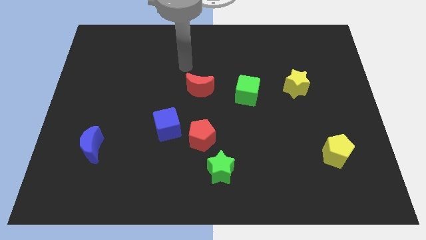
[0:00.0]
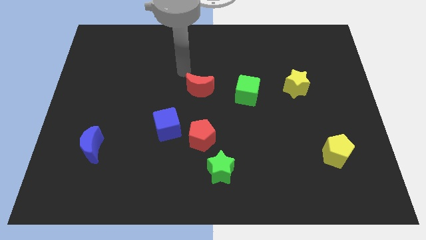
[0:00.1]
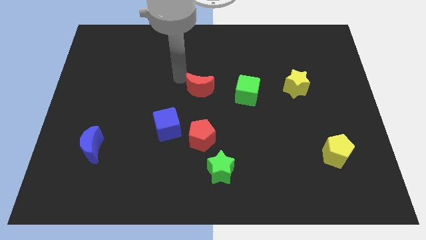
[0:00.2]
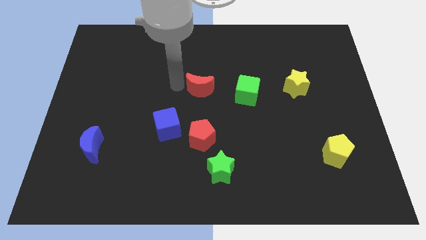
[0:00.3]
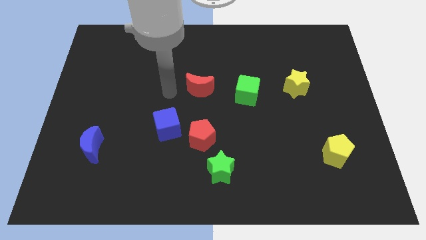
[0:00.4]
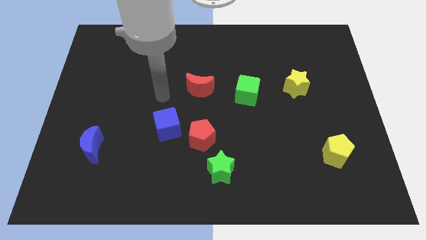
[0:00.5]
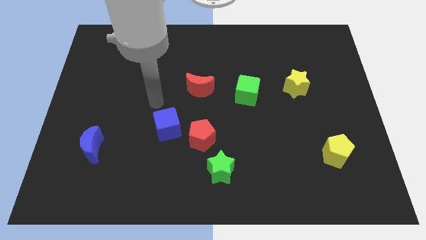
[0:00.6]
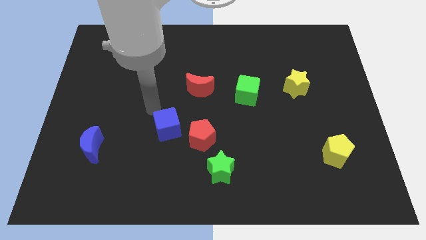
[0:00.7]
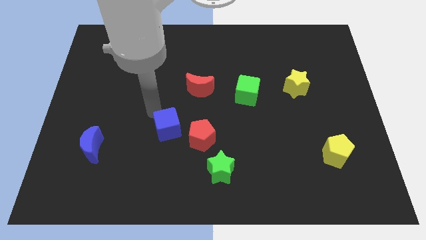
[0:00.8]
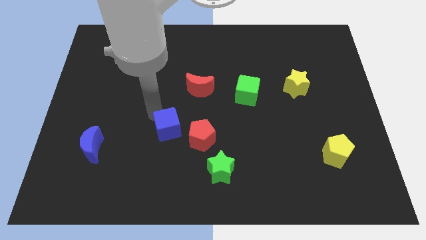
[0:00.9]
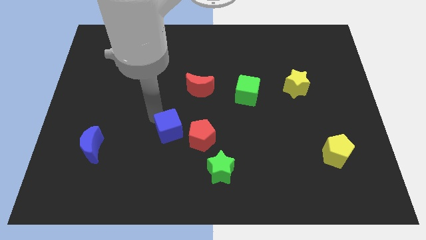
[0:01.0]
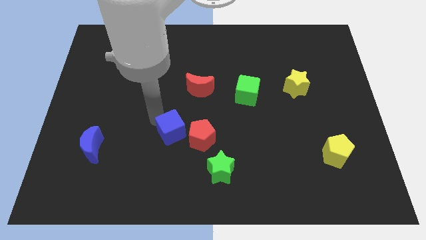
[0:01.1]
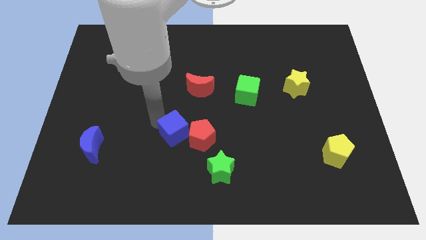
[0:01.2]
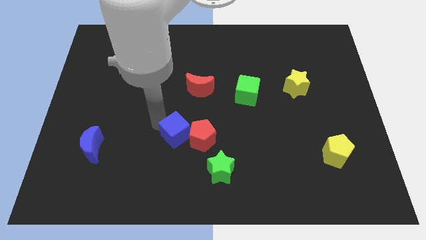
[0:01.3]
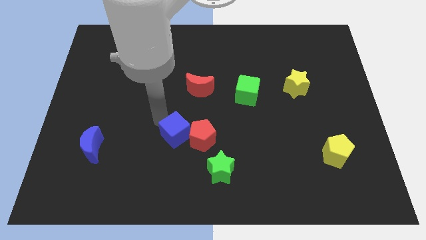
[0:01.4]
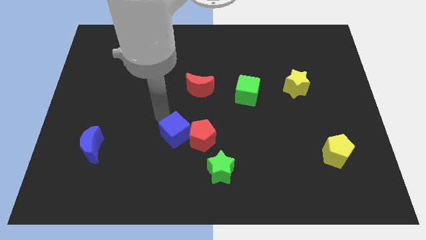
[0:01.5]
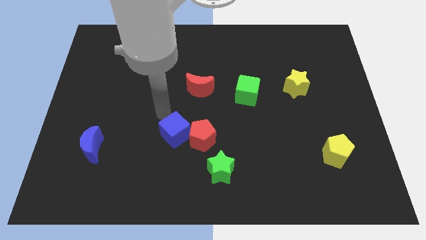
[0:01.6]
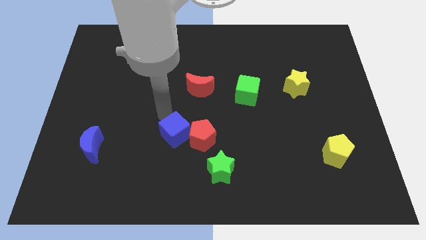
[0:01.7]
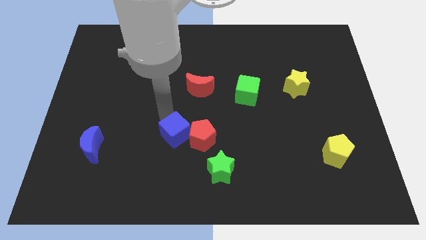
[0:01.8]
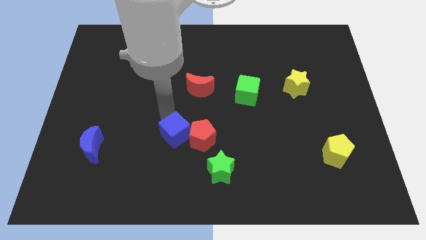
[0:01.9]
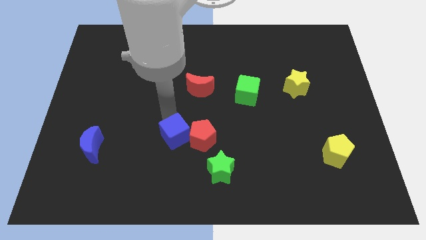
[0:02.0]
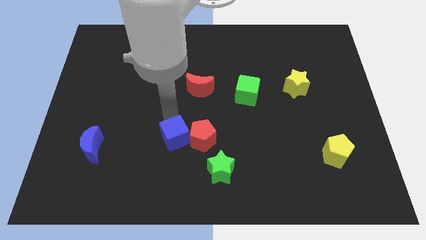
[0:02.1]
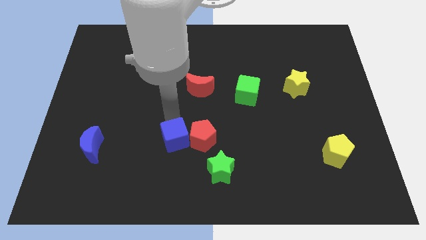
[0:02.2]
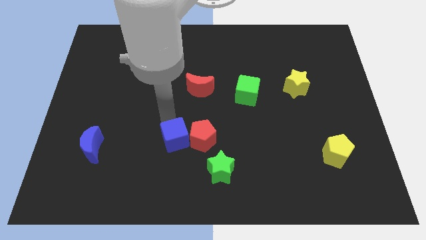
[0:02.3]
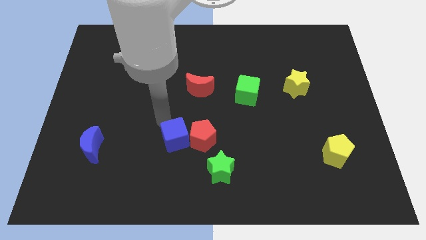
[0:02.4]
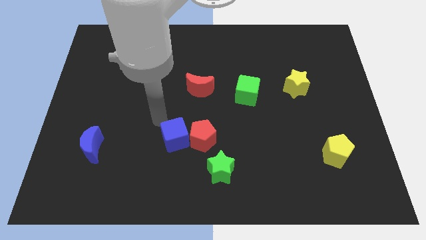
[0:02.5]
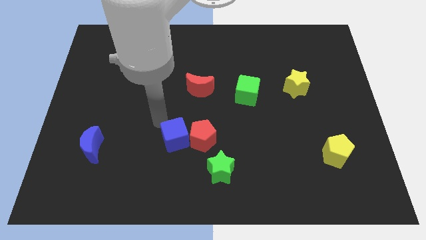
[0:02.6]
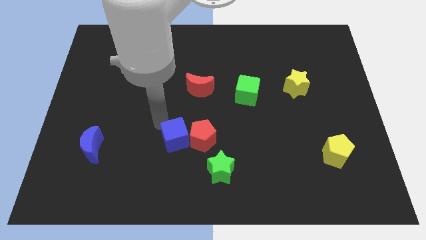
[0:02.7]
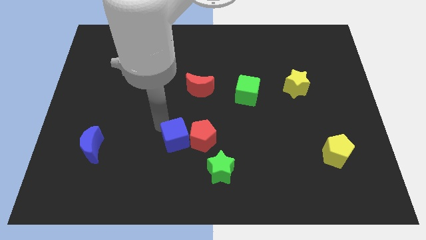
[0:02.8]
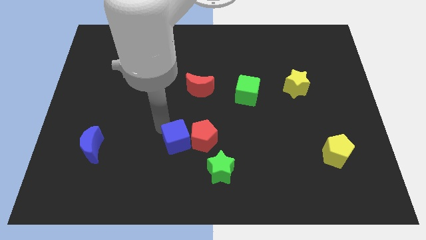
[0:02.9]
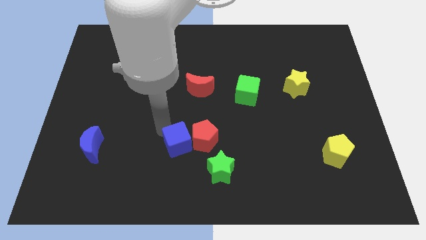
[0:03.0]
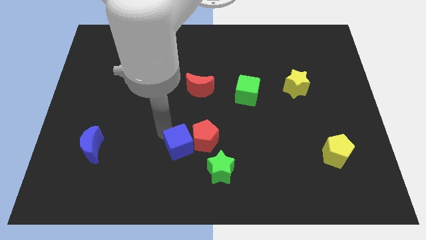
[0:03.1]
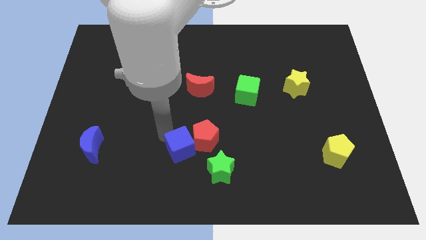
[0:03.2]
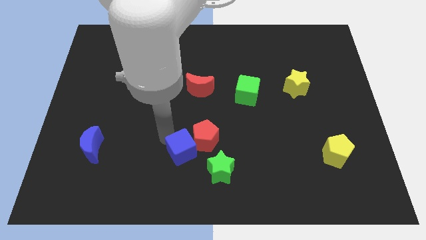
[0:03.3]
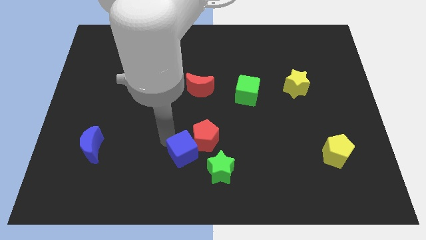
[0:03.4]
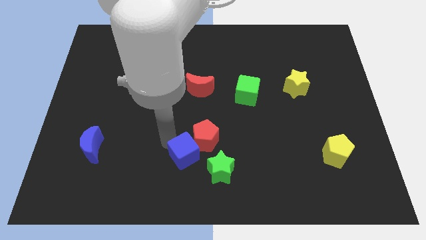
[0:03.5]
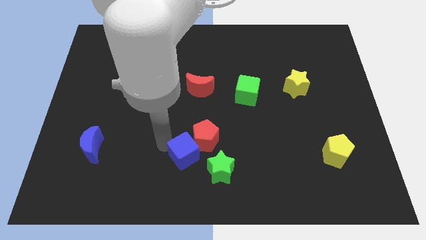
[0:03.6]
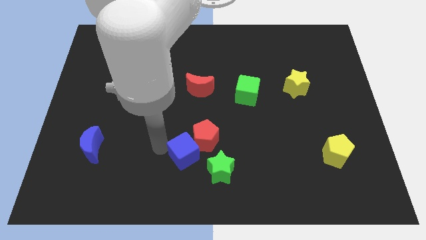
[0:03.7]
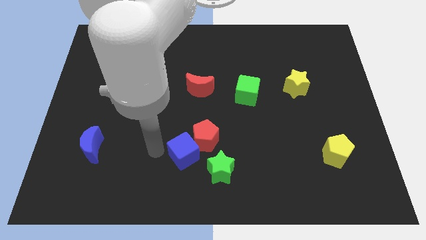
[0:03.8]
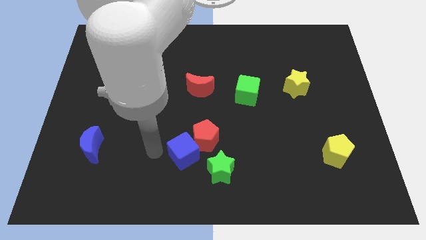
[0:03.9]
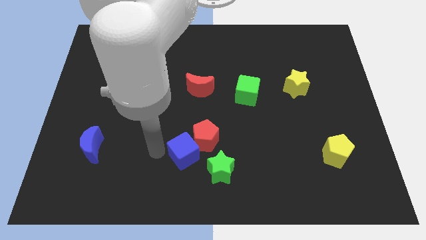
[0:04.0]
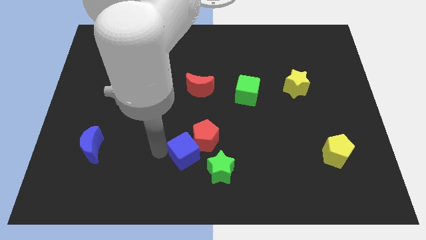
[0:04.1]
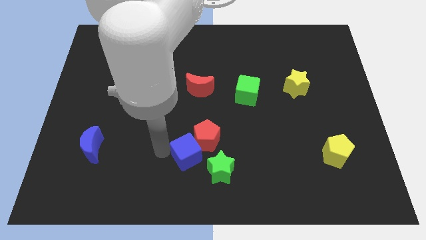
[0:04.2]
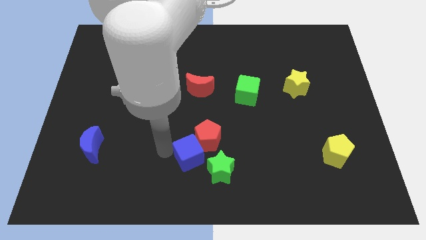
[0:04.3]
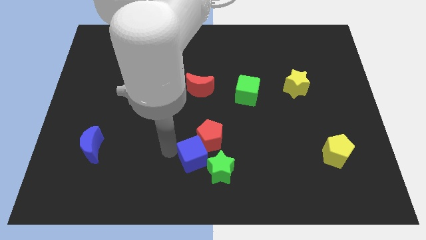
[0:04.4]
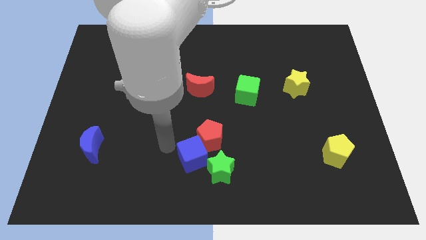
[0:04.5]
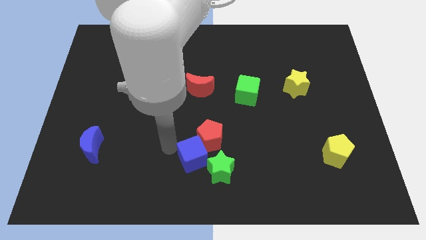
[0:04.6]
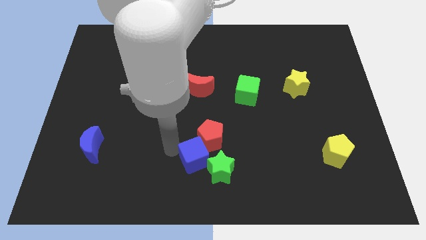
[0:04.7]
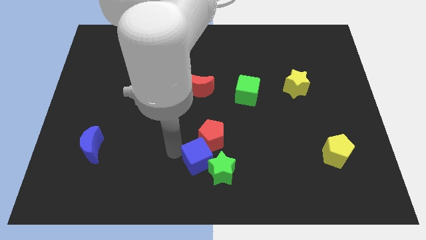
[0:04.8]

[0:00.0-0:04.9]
slide the blue cube next to the green star

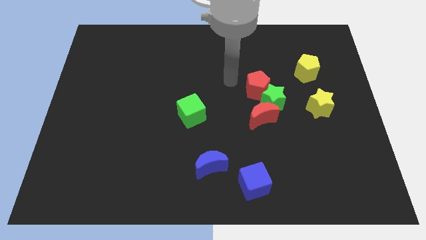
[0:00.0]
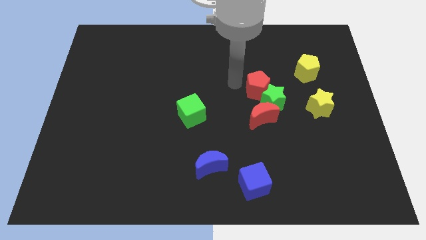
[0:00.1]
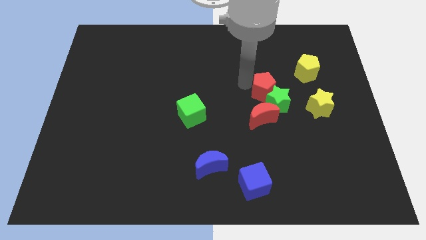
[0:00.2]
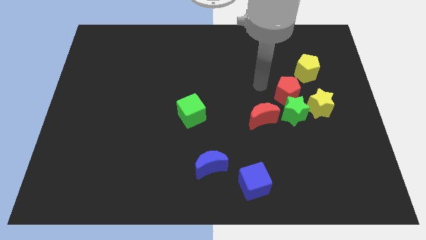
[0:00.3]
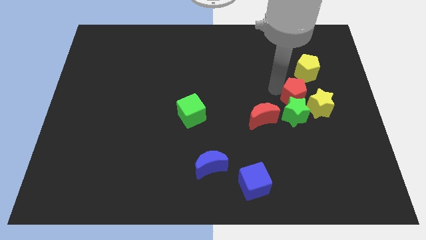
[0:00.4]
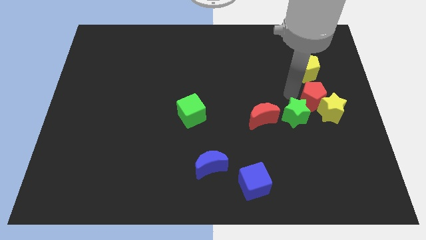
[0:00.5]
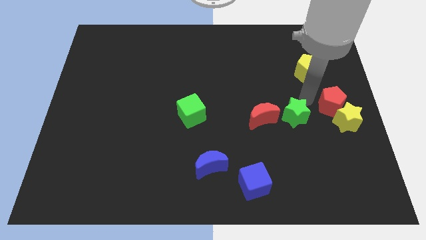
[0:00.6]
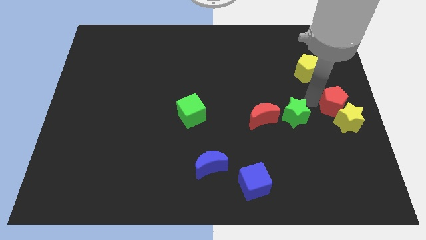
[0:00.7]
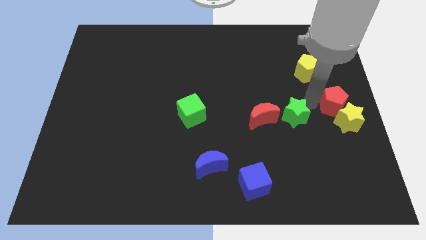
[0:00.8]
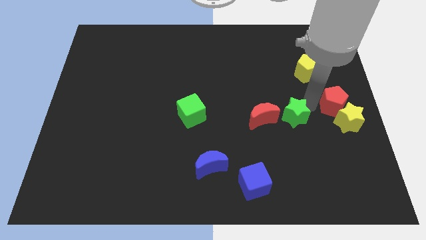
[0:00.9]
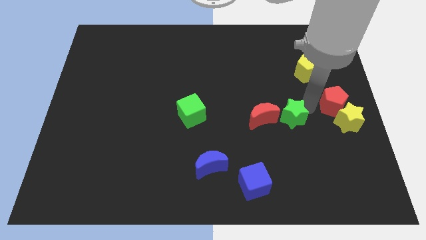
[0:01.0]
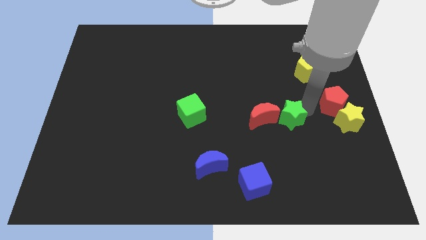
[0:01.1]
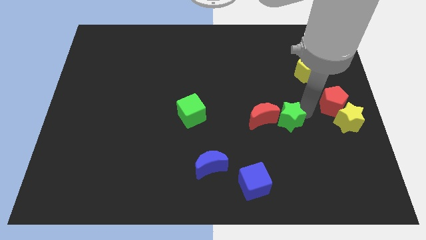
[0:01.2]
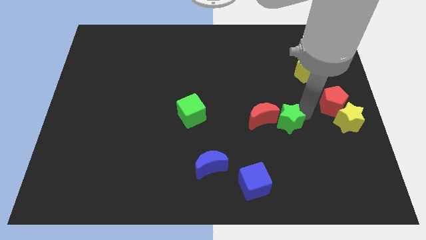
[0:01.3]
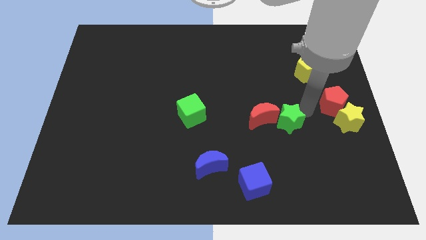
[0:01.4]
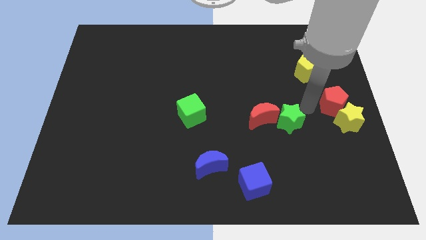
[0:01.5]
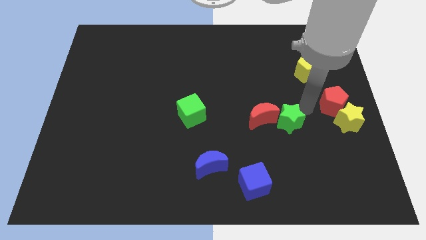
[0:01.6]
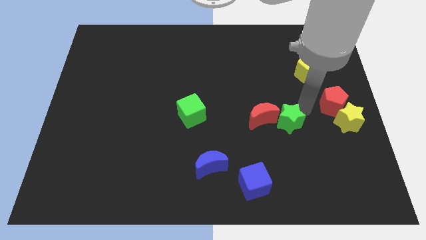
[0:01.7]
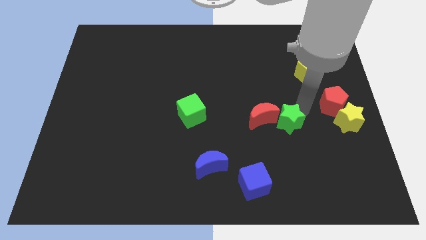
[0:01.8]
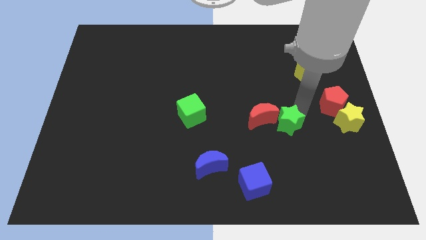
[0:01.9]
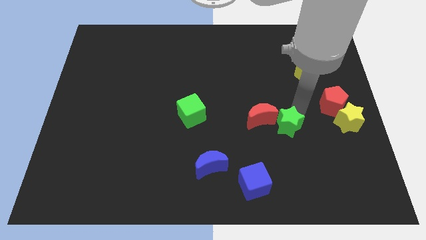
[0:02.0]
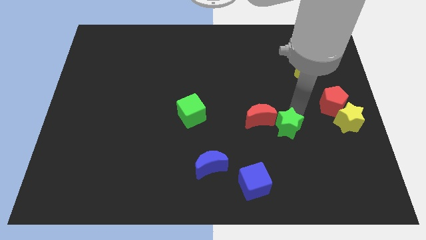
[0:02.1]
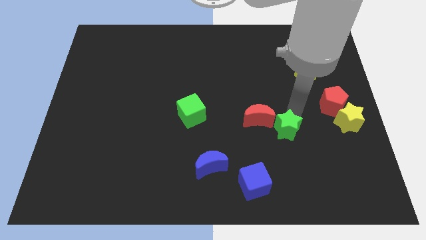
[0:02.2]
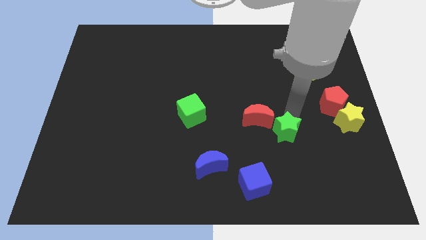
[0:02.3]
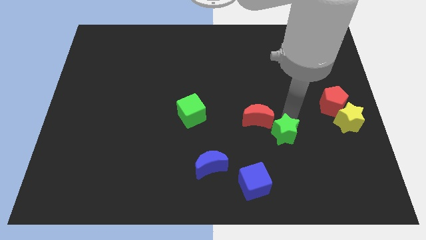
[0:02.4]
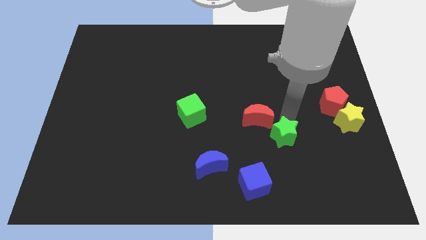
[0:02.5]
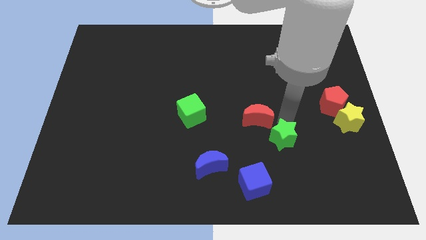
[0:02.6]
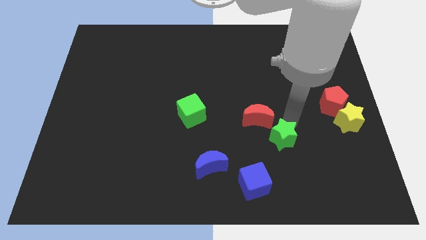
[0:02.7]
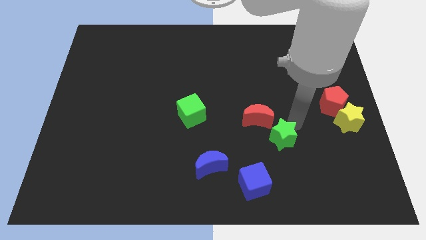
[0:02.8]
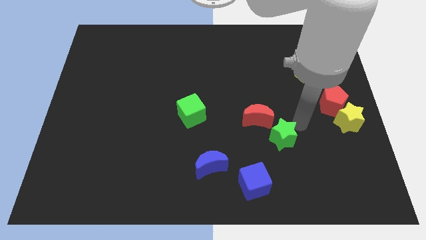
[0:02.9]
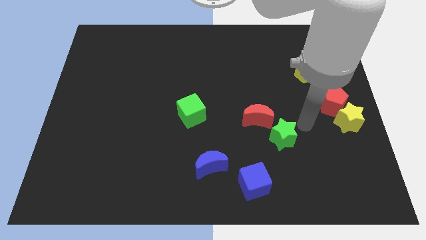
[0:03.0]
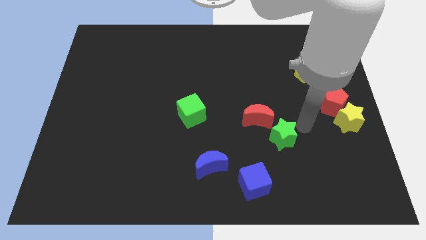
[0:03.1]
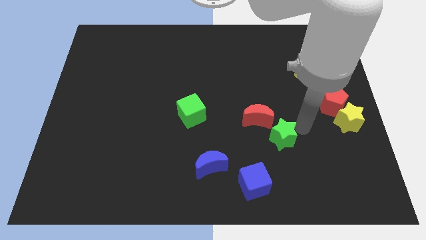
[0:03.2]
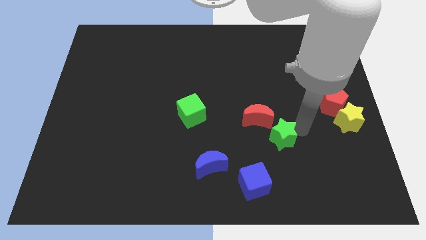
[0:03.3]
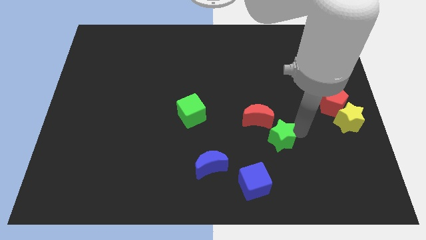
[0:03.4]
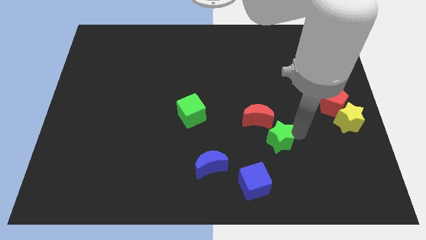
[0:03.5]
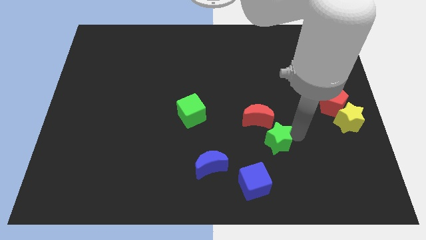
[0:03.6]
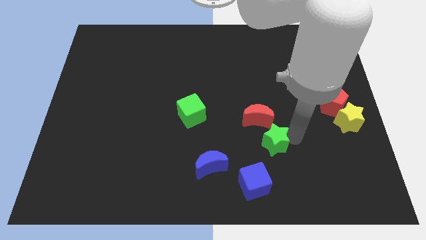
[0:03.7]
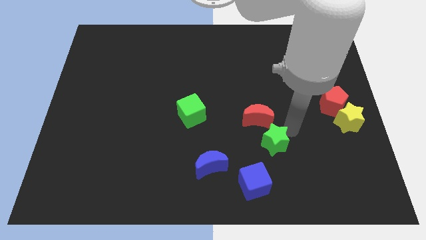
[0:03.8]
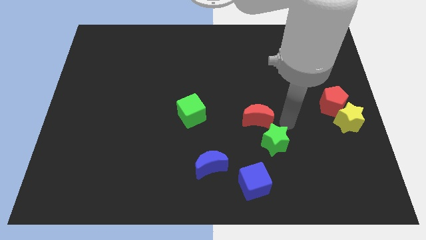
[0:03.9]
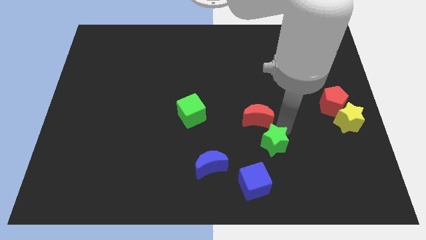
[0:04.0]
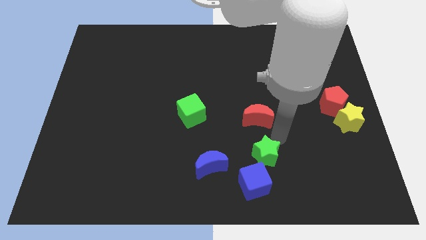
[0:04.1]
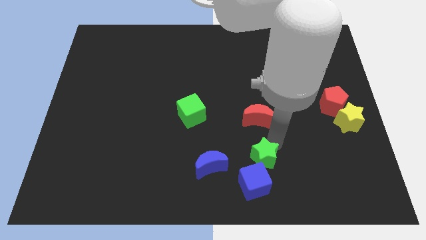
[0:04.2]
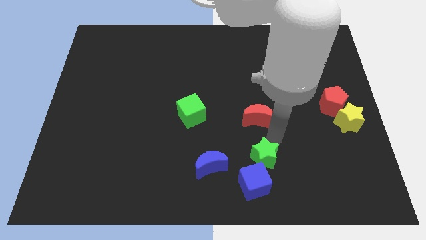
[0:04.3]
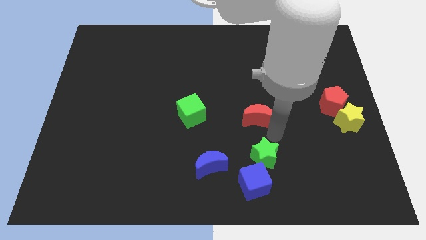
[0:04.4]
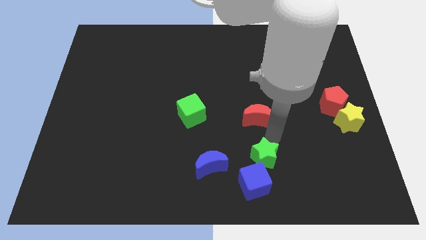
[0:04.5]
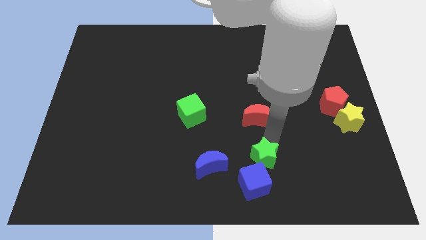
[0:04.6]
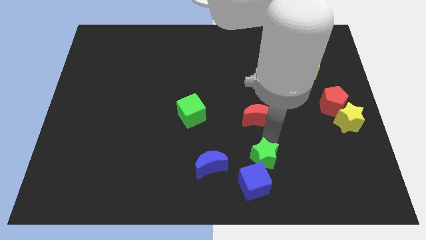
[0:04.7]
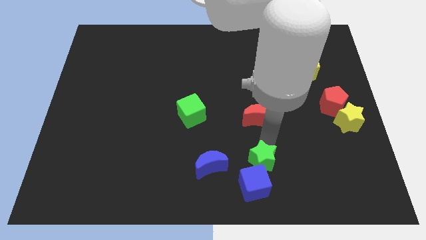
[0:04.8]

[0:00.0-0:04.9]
push the green star close to the blue cube
